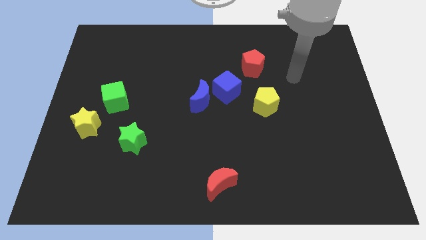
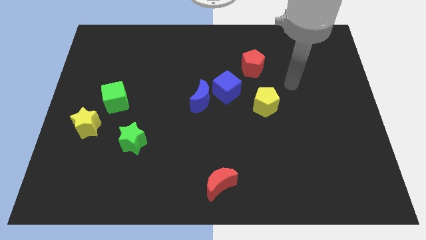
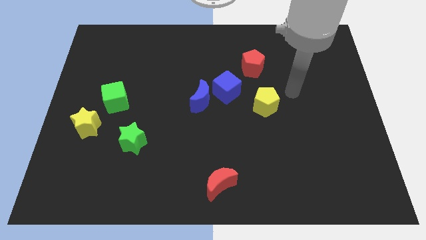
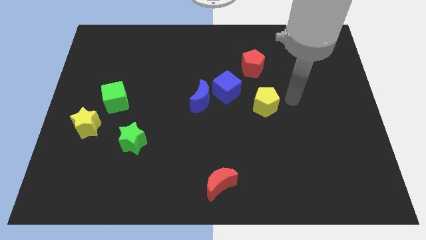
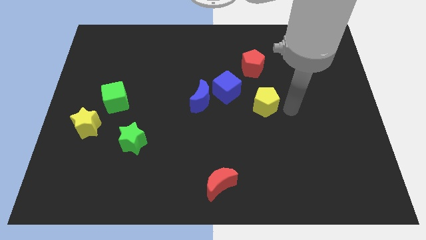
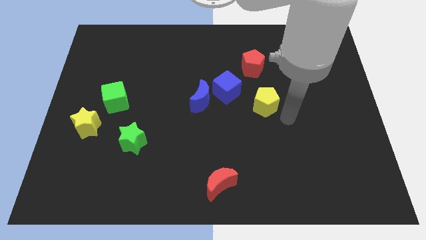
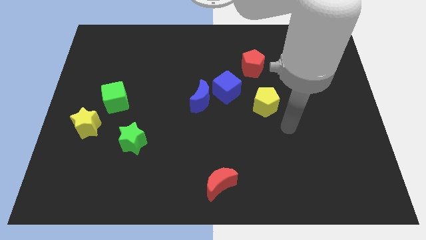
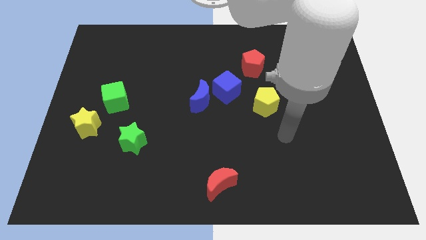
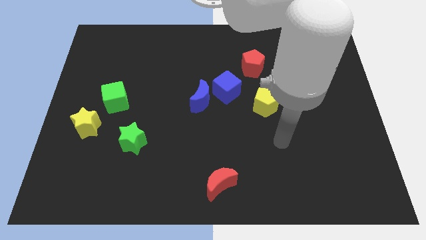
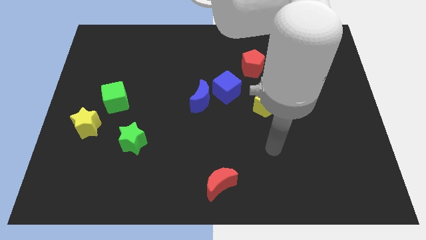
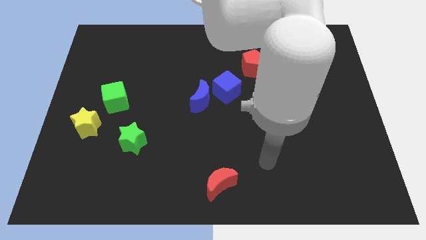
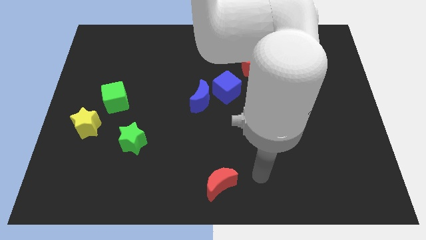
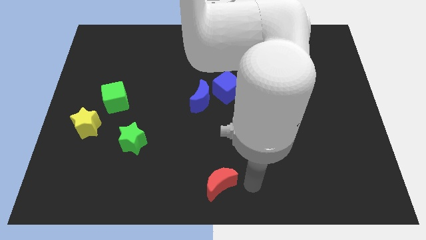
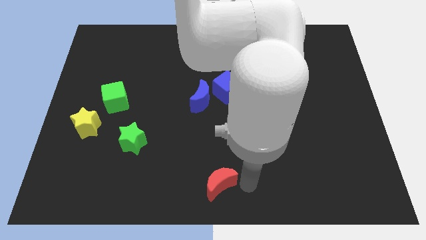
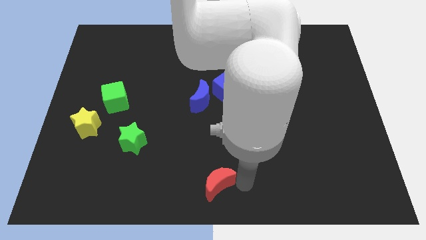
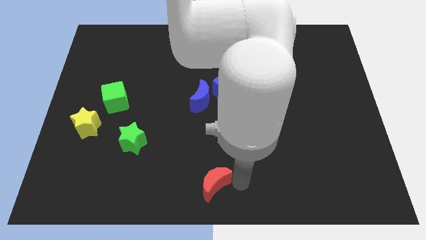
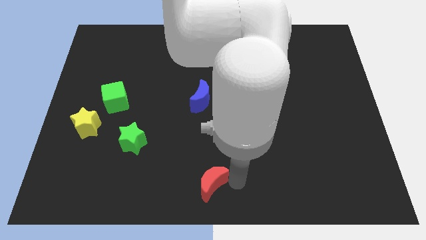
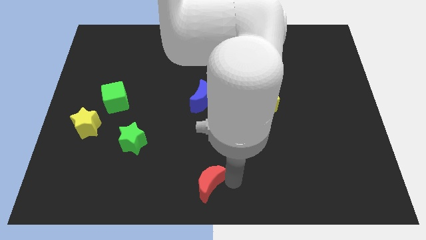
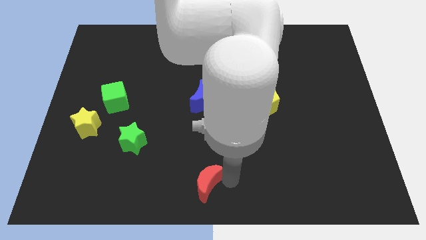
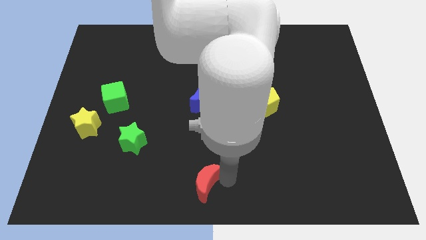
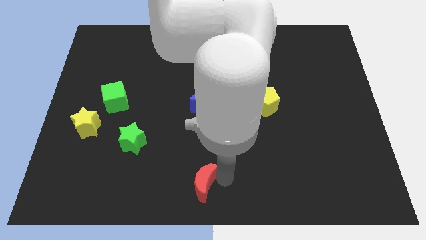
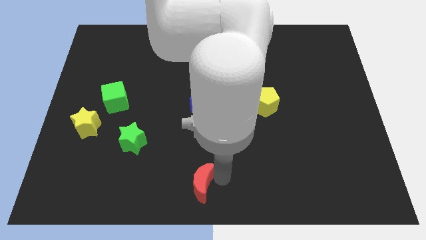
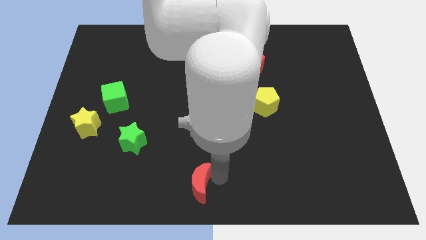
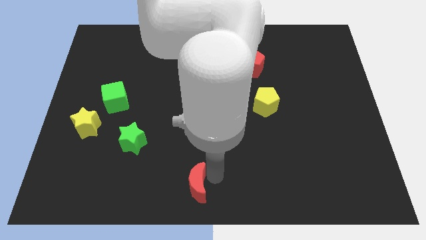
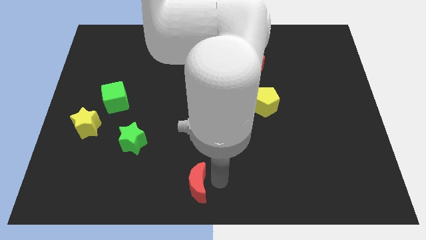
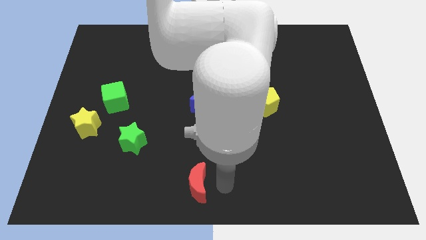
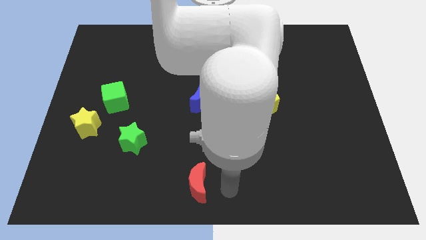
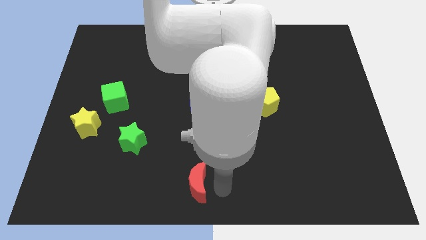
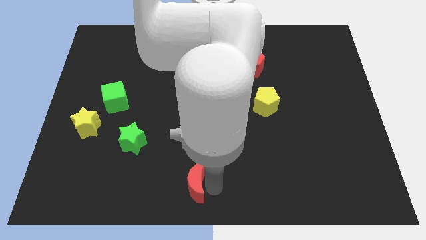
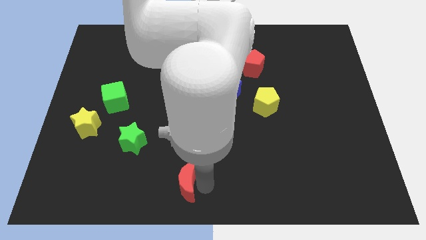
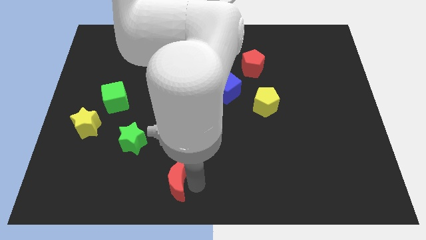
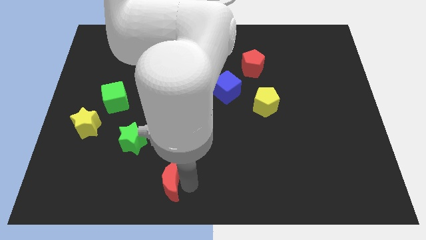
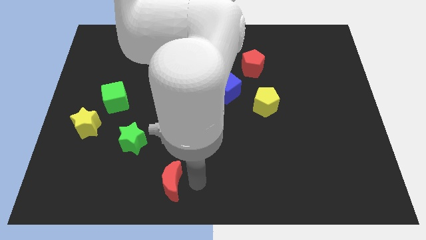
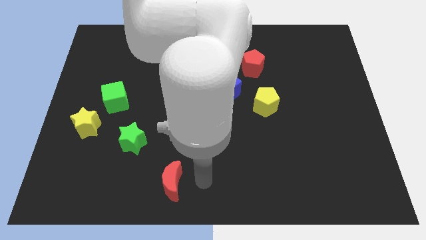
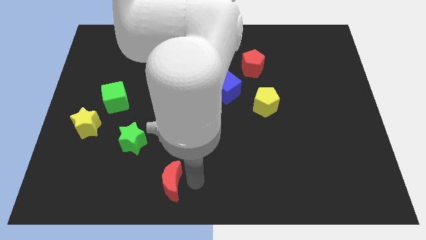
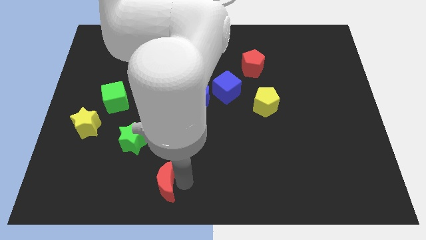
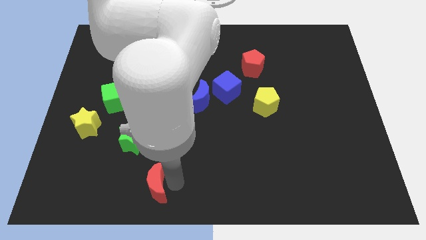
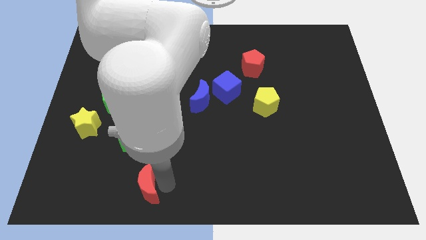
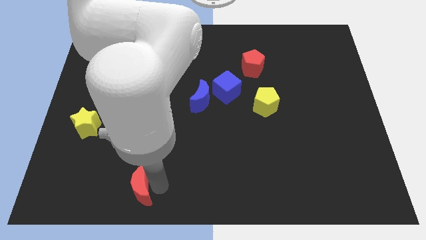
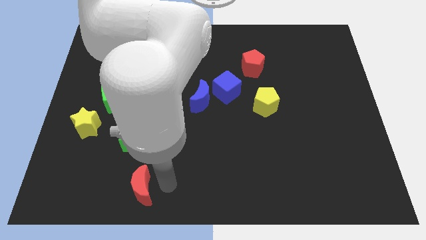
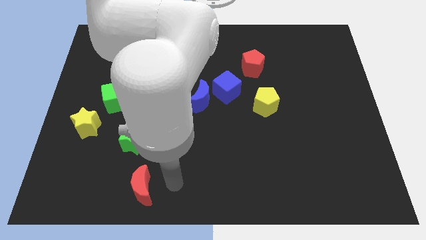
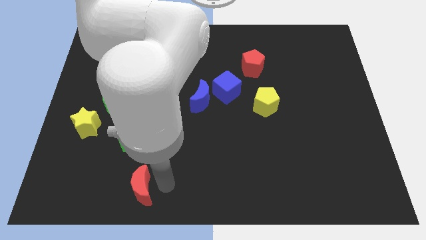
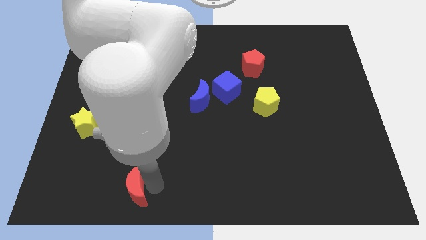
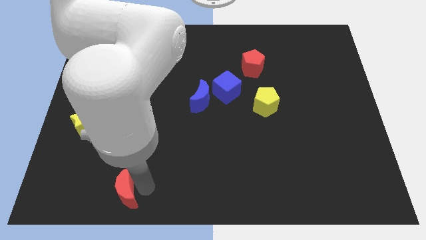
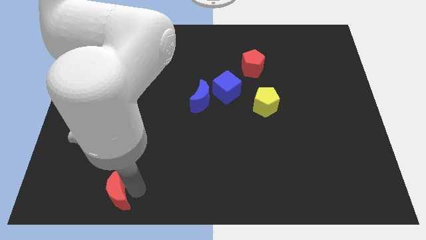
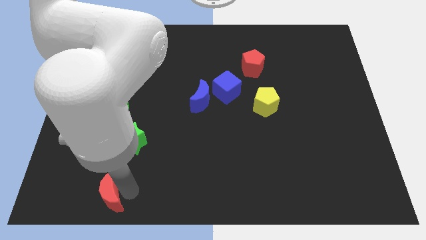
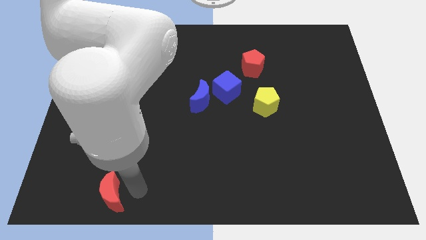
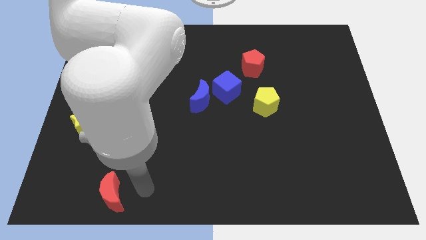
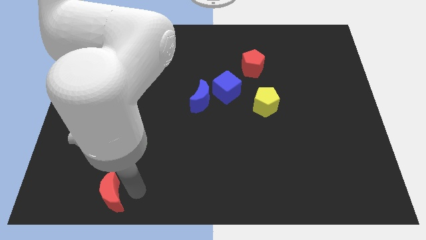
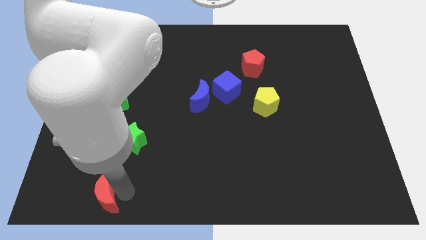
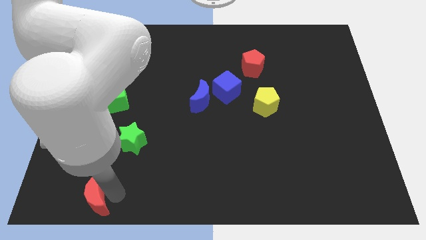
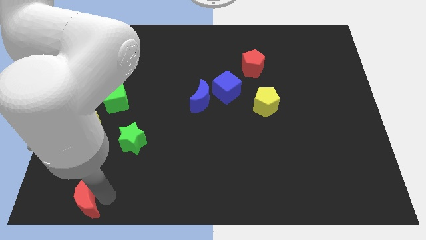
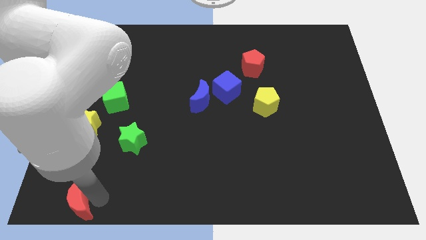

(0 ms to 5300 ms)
slide the red moon to the bottom left corner

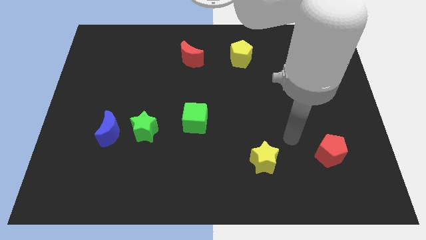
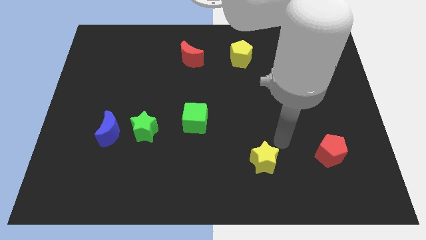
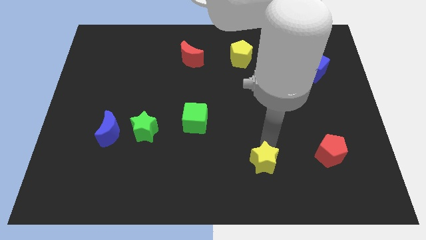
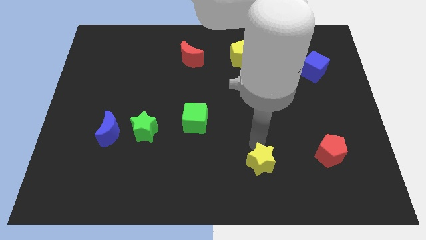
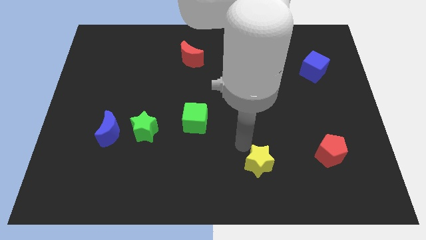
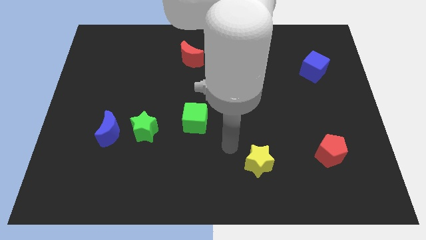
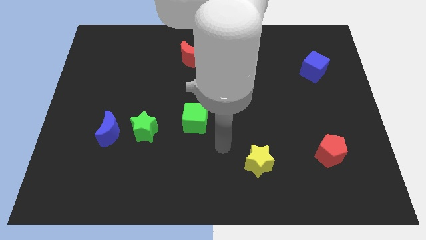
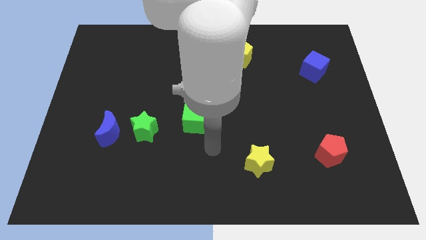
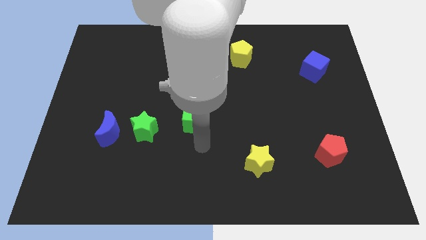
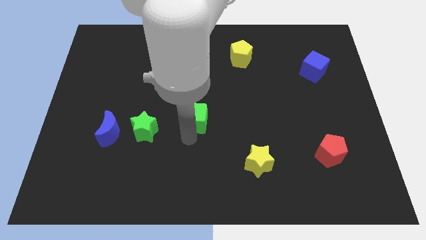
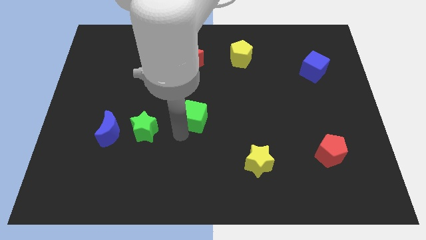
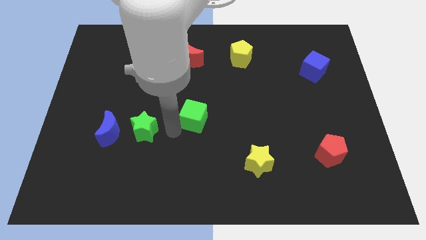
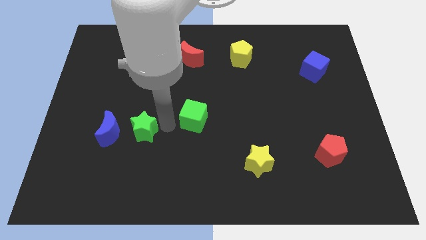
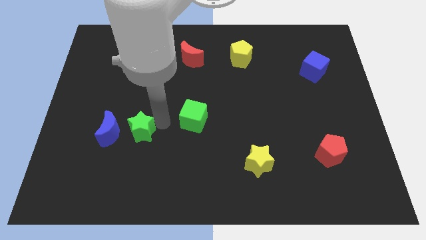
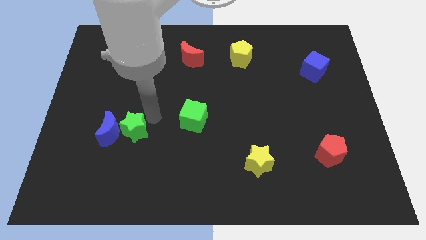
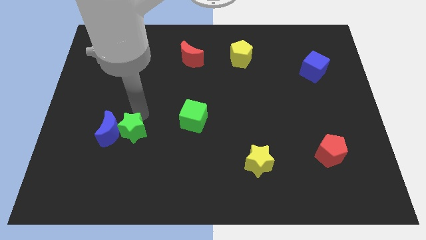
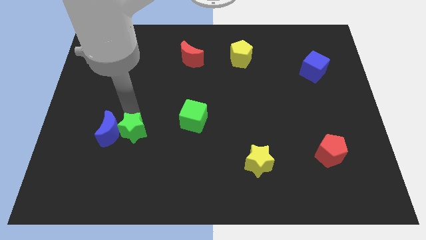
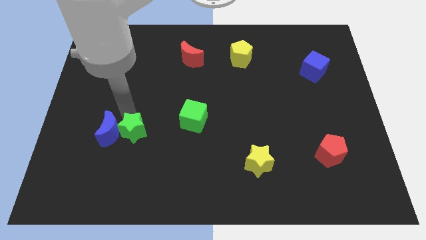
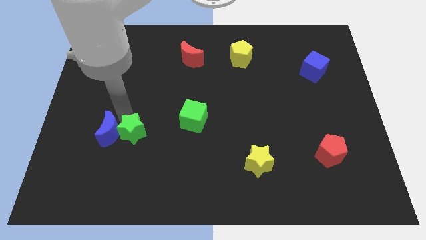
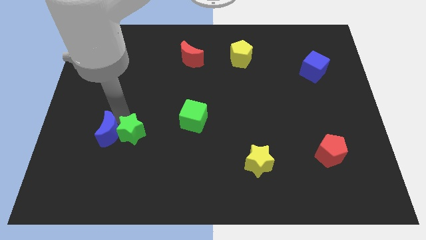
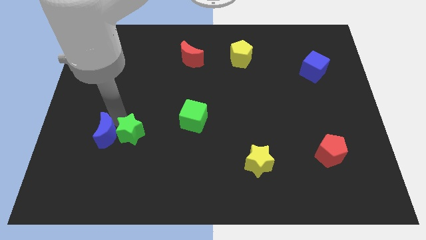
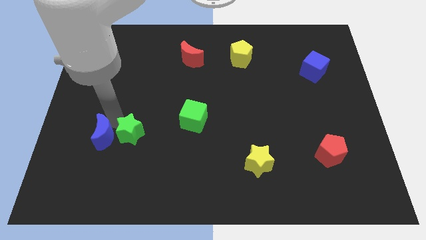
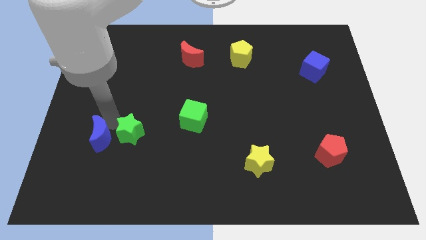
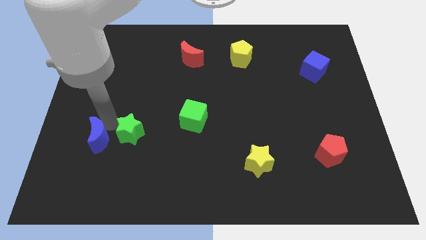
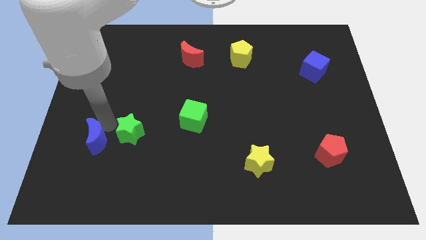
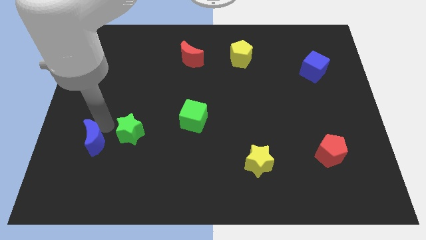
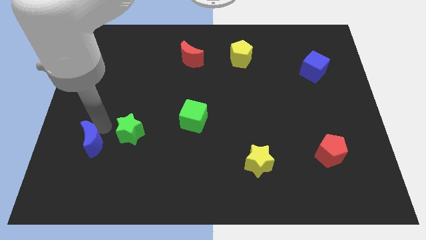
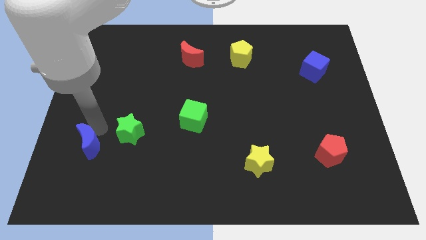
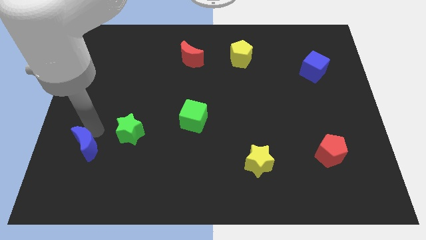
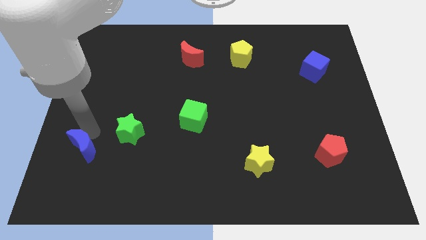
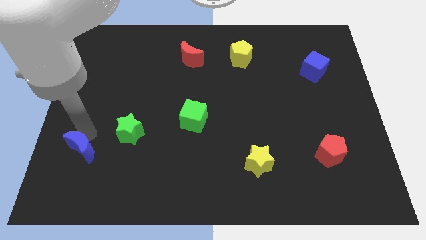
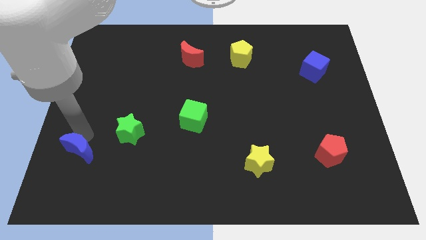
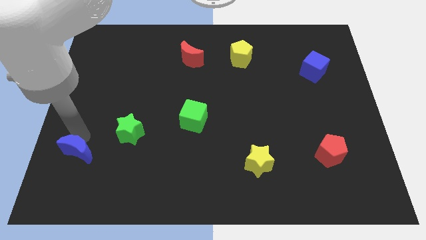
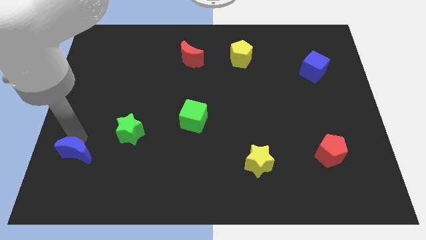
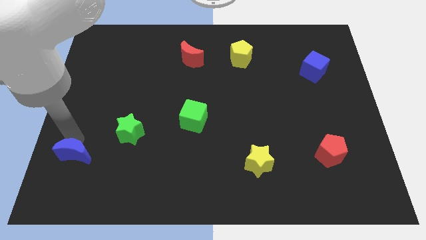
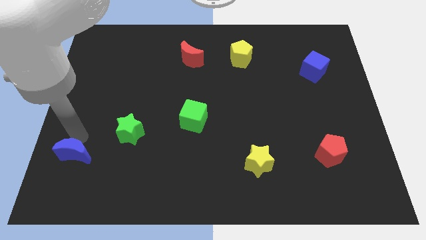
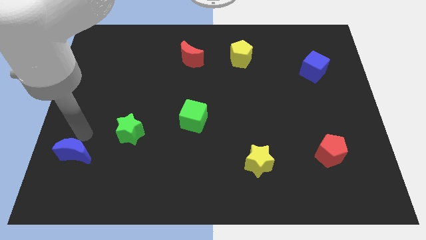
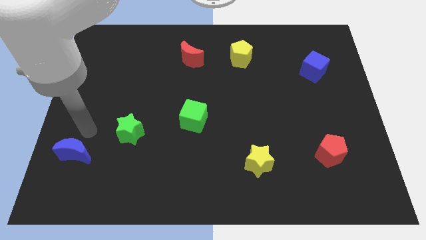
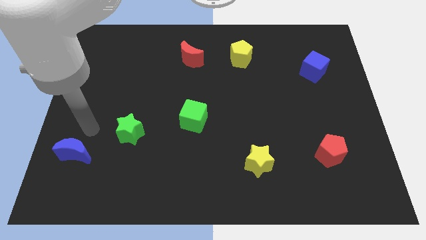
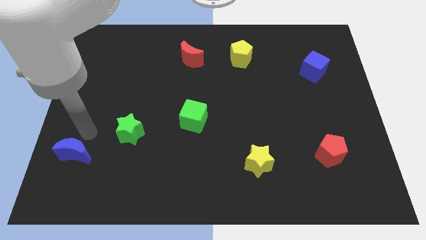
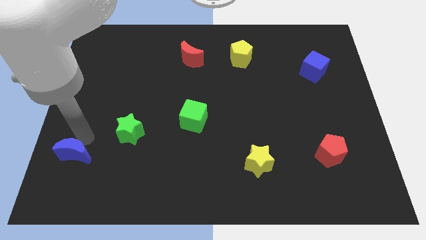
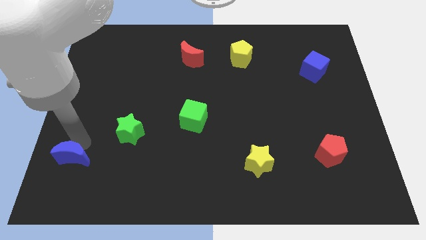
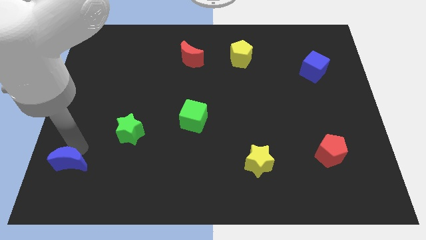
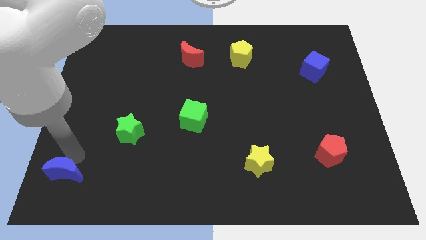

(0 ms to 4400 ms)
slide the blue moon to the bottom left
